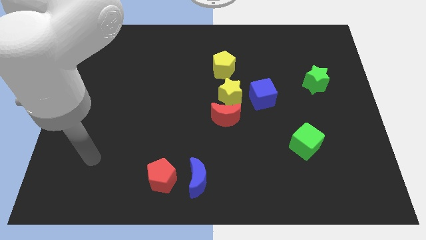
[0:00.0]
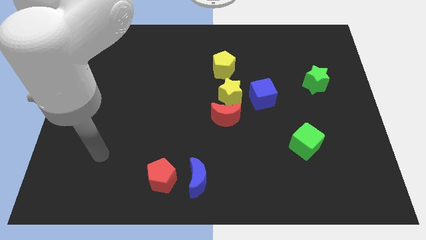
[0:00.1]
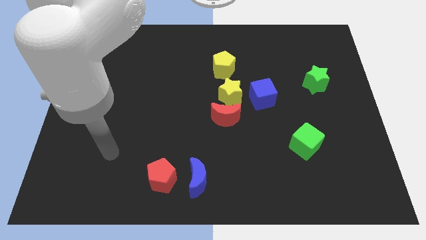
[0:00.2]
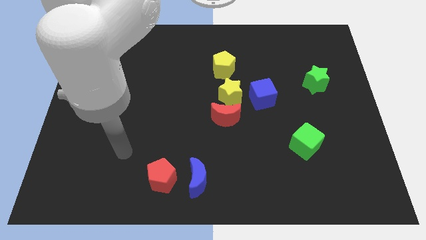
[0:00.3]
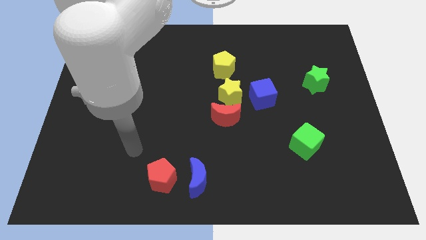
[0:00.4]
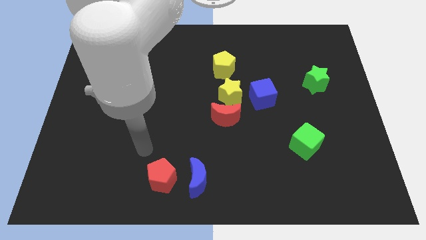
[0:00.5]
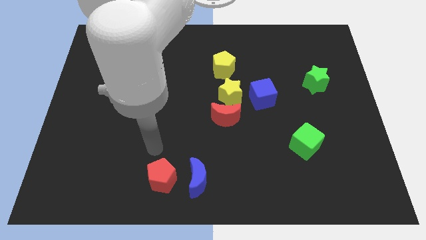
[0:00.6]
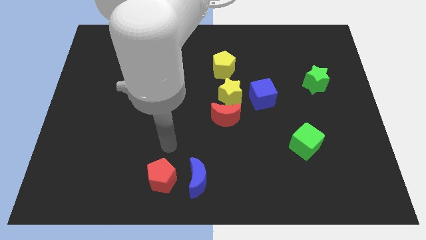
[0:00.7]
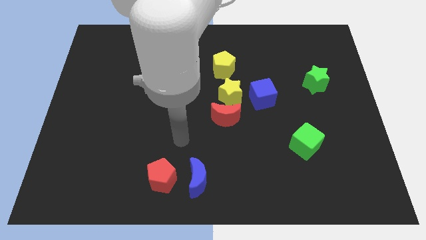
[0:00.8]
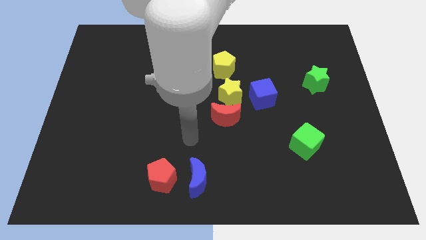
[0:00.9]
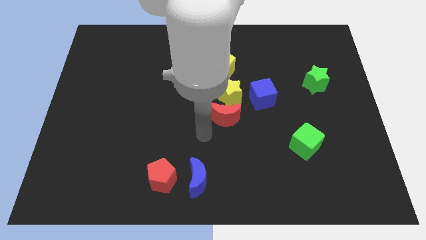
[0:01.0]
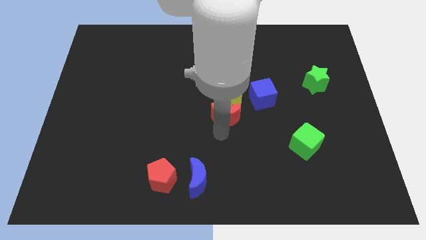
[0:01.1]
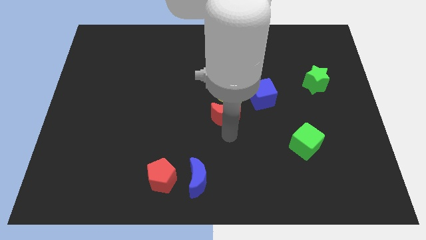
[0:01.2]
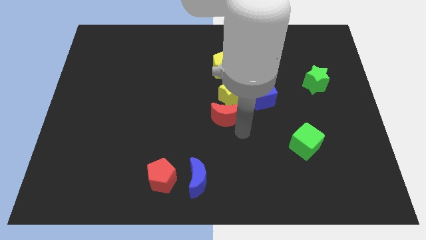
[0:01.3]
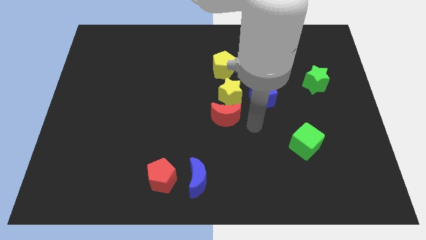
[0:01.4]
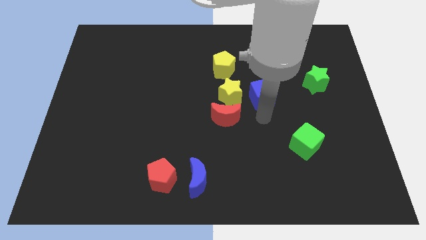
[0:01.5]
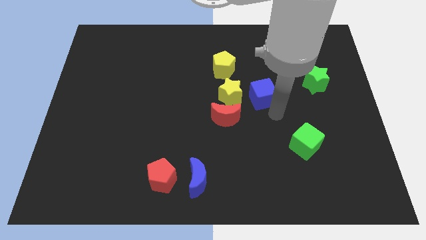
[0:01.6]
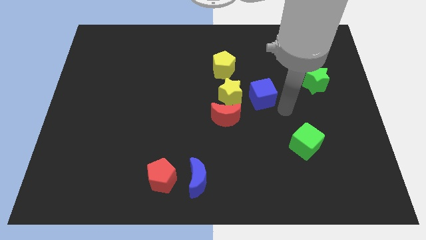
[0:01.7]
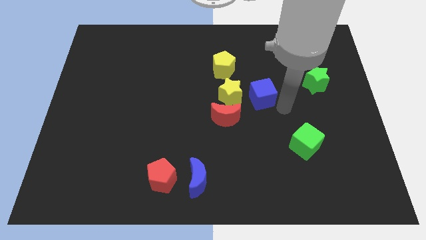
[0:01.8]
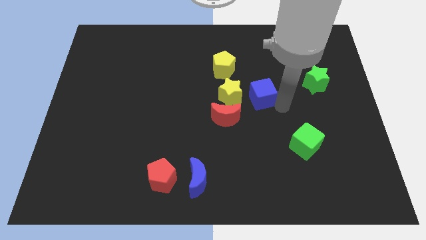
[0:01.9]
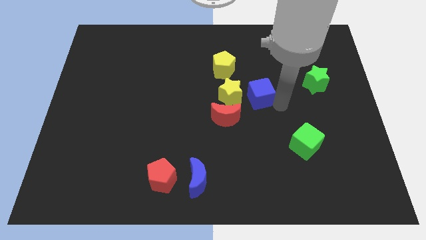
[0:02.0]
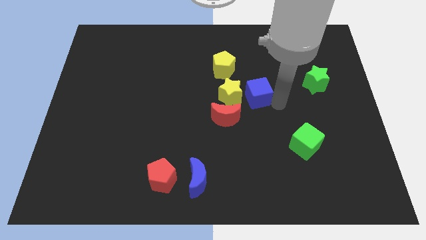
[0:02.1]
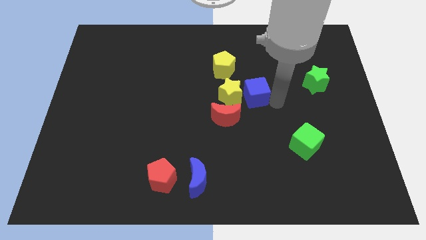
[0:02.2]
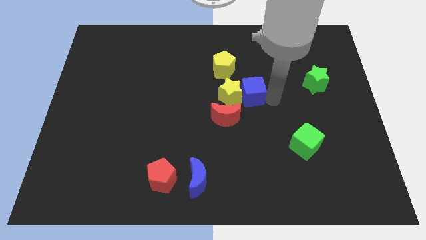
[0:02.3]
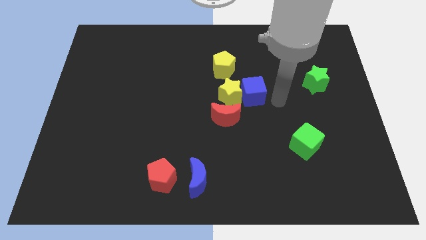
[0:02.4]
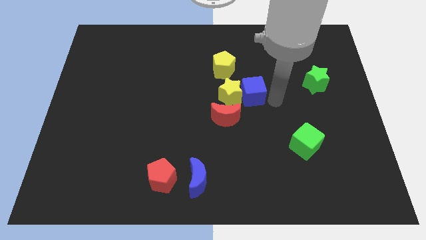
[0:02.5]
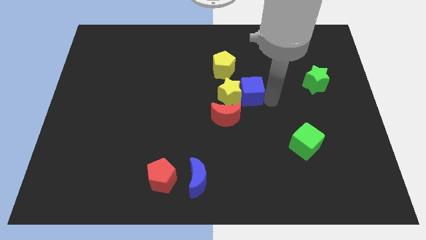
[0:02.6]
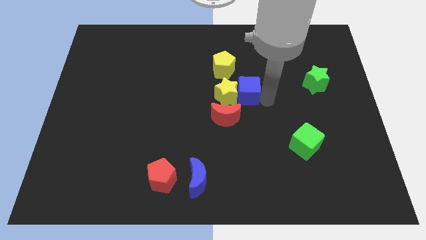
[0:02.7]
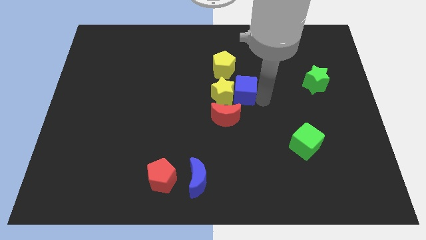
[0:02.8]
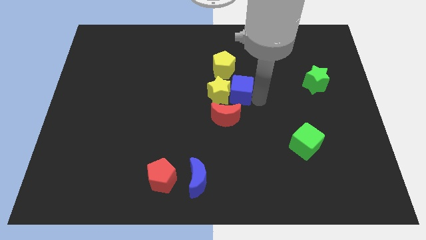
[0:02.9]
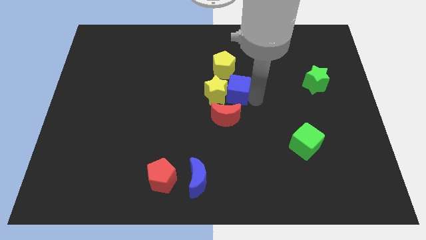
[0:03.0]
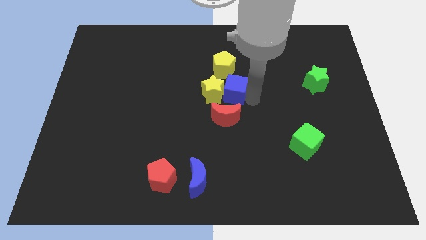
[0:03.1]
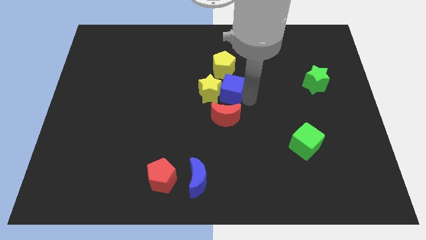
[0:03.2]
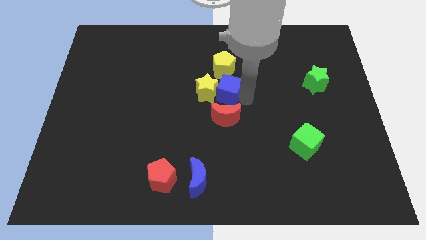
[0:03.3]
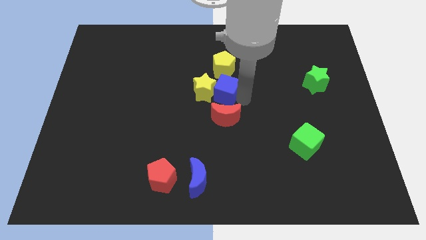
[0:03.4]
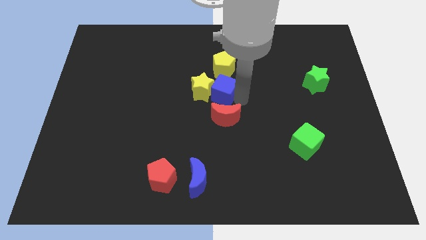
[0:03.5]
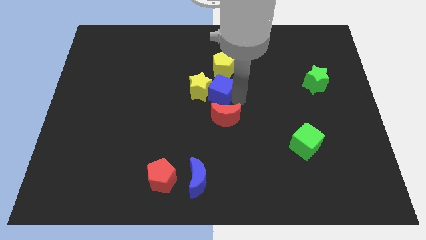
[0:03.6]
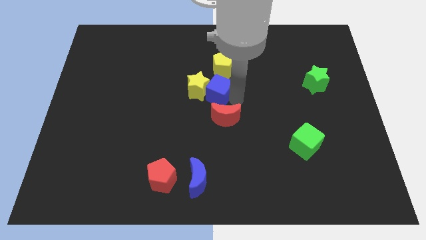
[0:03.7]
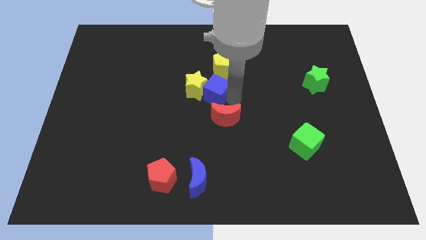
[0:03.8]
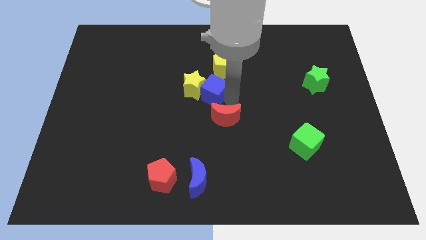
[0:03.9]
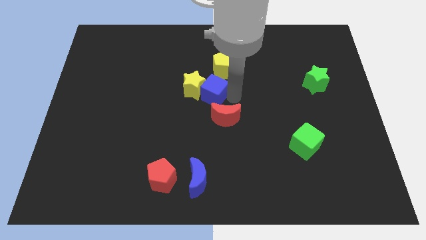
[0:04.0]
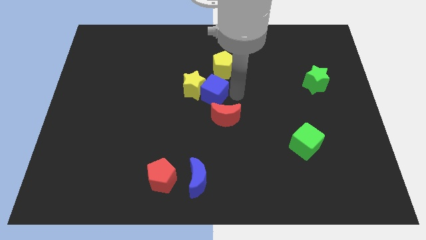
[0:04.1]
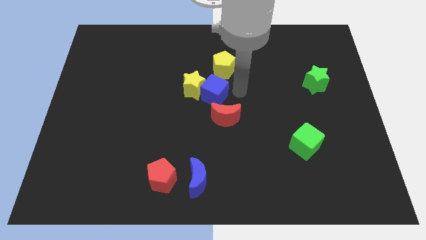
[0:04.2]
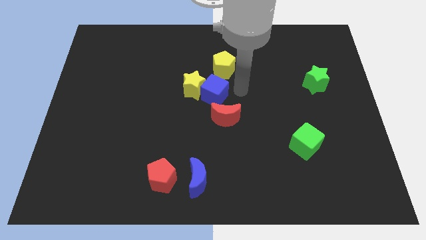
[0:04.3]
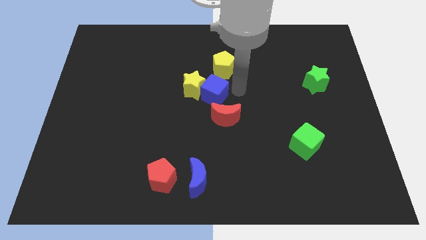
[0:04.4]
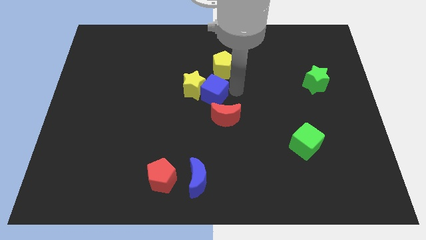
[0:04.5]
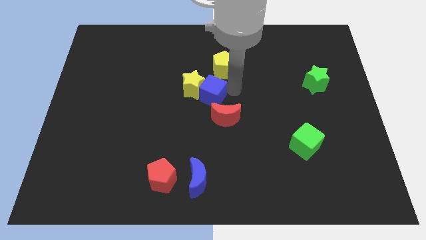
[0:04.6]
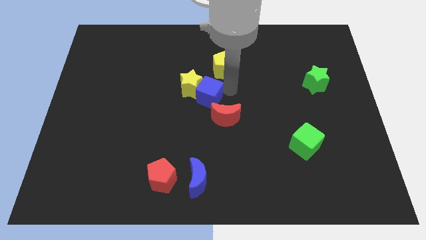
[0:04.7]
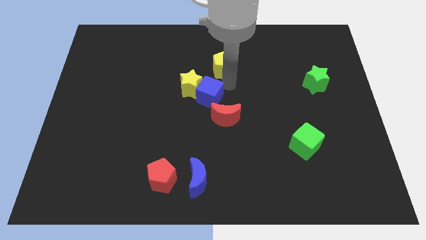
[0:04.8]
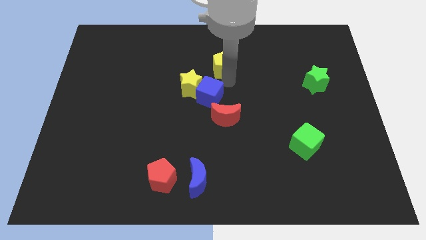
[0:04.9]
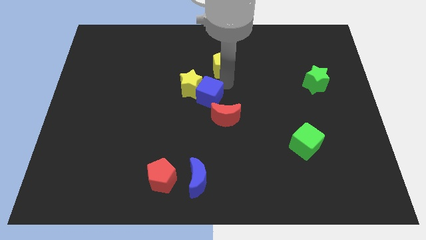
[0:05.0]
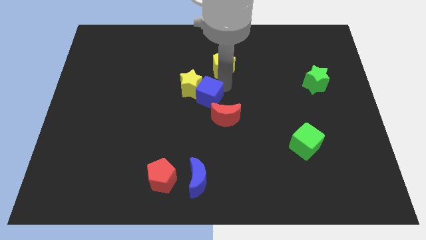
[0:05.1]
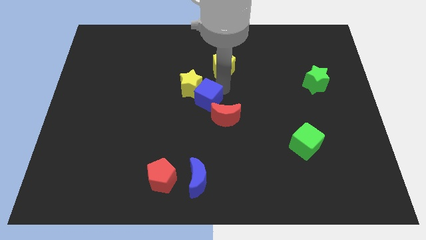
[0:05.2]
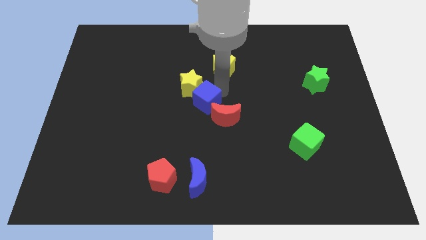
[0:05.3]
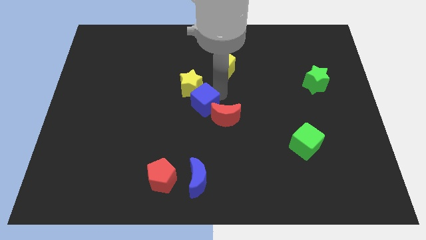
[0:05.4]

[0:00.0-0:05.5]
push the blue cube left of the red moon

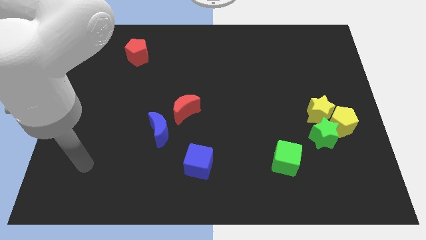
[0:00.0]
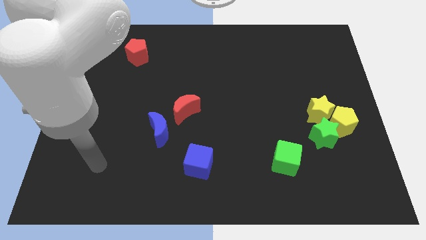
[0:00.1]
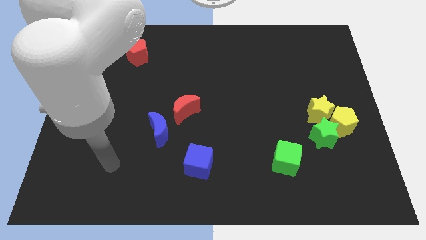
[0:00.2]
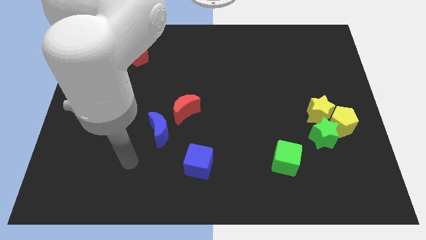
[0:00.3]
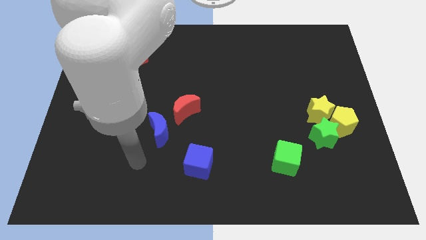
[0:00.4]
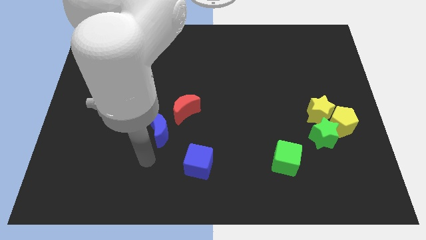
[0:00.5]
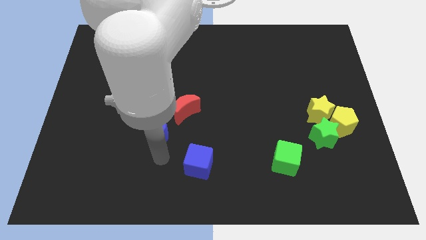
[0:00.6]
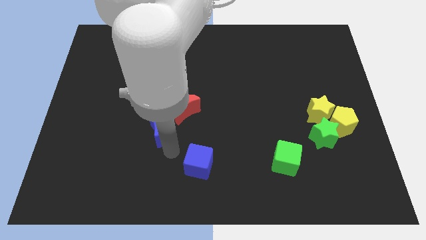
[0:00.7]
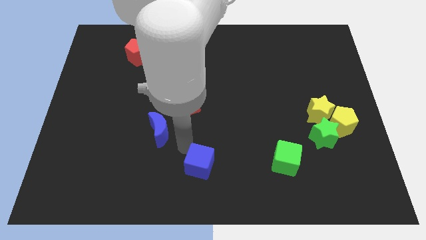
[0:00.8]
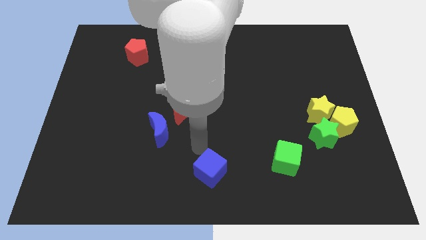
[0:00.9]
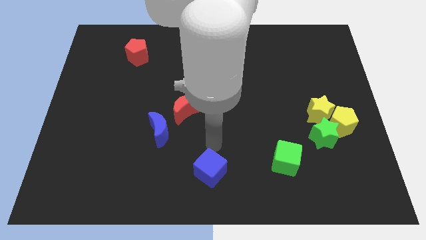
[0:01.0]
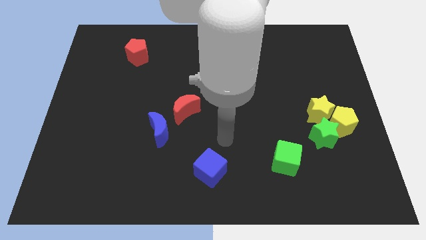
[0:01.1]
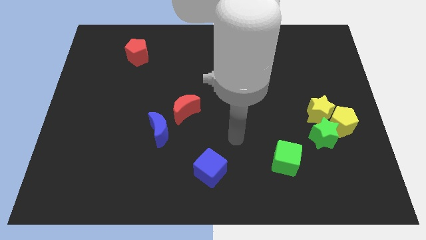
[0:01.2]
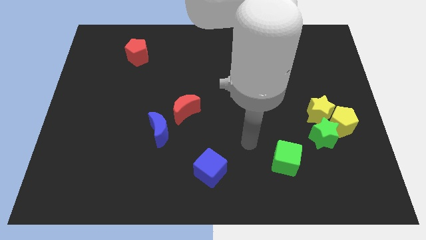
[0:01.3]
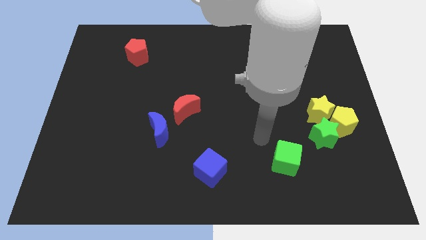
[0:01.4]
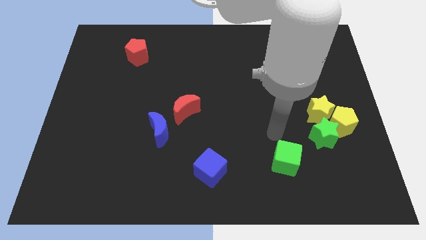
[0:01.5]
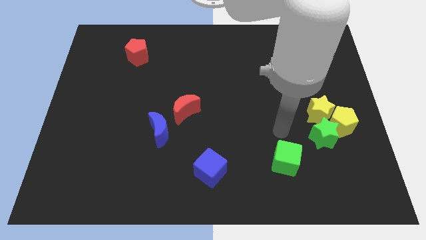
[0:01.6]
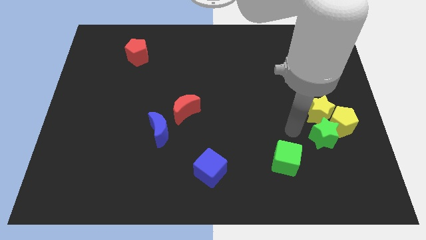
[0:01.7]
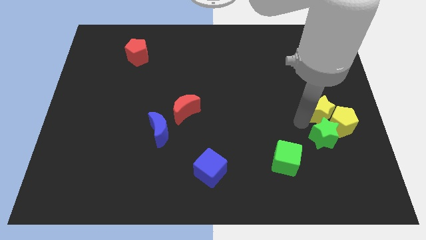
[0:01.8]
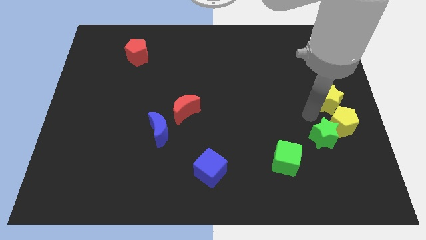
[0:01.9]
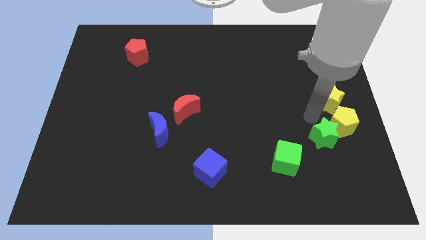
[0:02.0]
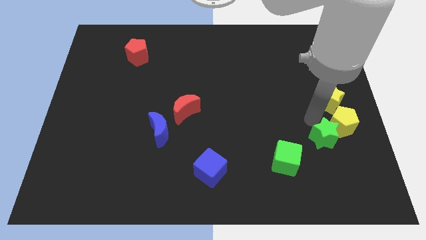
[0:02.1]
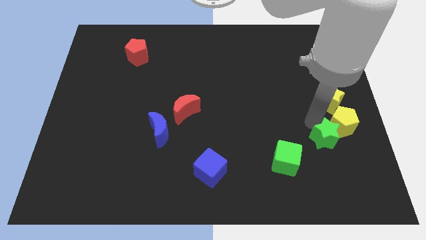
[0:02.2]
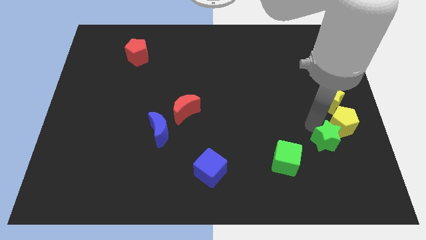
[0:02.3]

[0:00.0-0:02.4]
put the green star just right of the green cube

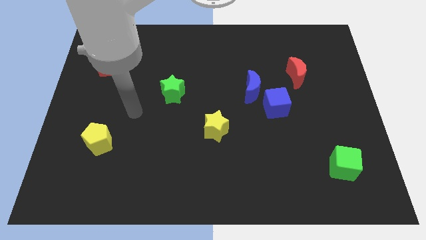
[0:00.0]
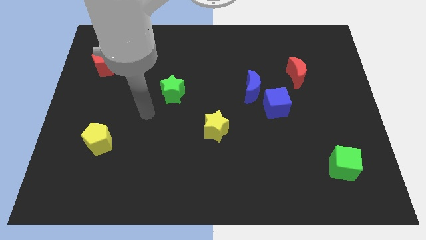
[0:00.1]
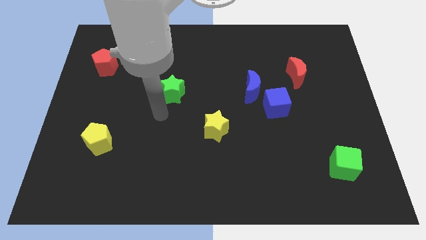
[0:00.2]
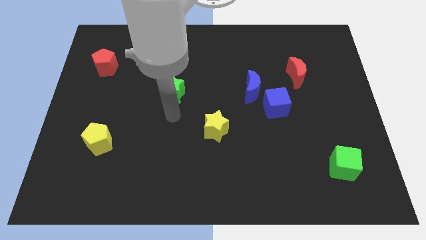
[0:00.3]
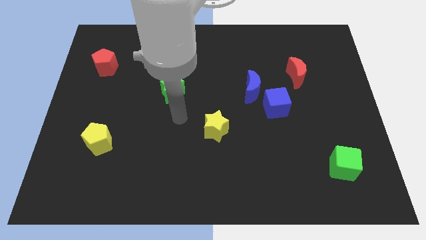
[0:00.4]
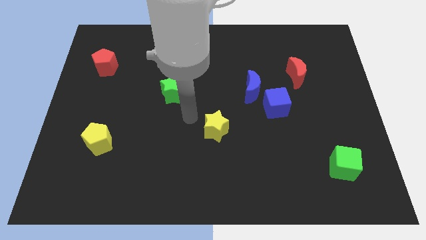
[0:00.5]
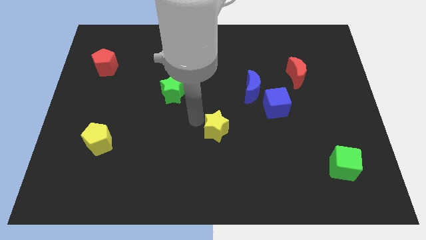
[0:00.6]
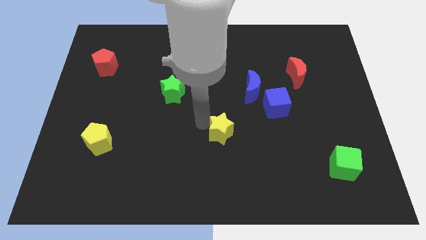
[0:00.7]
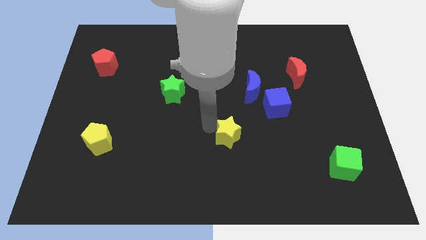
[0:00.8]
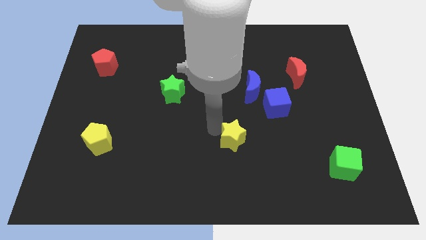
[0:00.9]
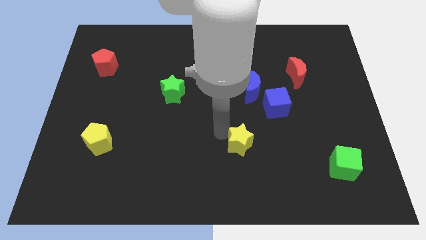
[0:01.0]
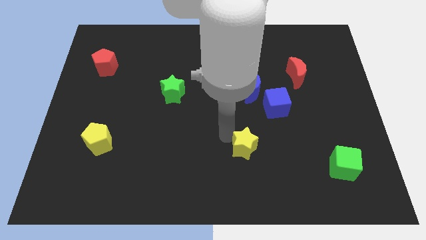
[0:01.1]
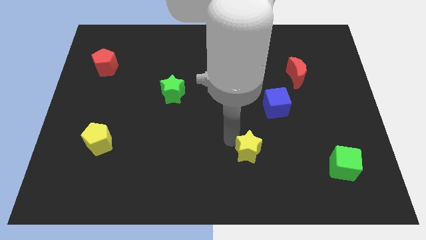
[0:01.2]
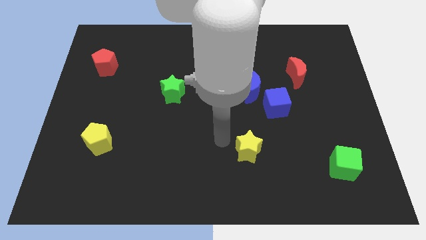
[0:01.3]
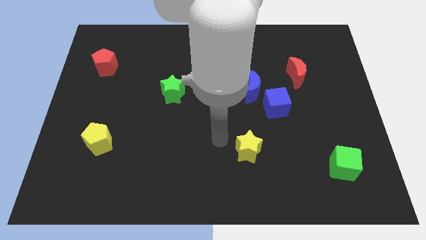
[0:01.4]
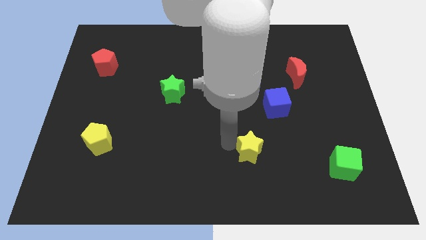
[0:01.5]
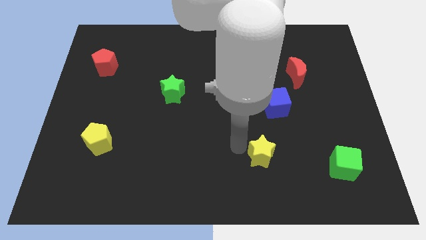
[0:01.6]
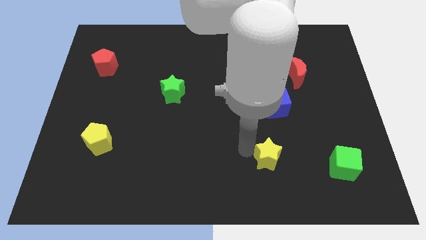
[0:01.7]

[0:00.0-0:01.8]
move the yellow star just left of the green cube
